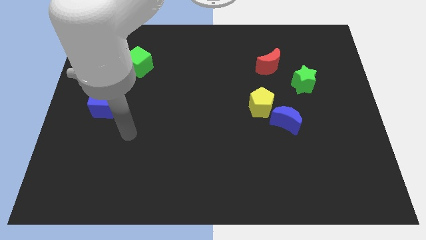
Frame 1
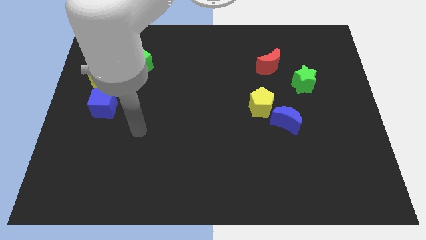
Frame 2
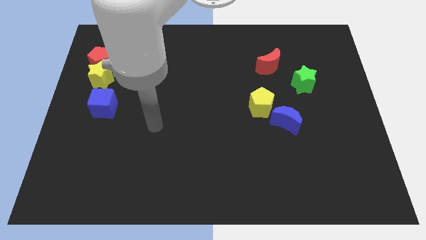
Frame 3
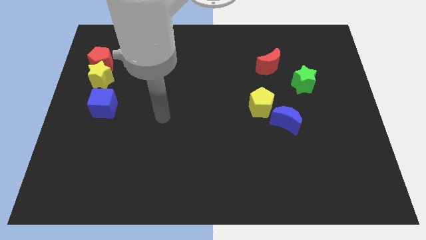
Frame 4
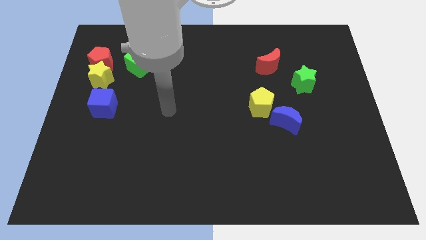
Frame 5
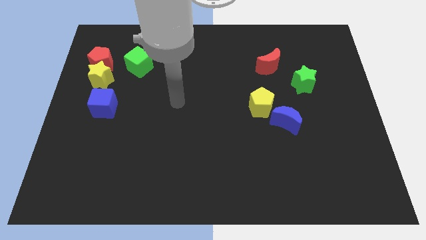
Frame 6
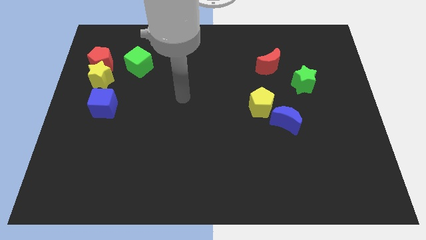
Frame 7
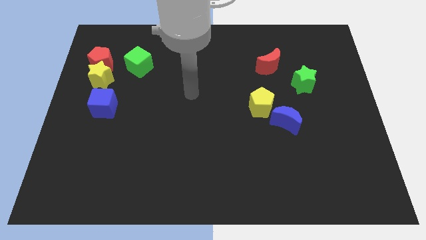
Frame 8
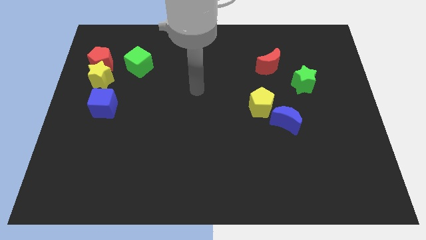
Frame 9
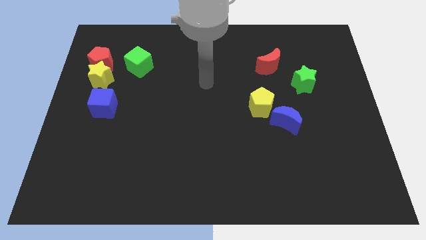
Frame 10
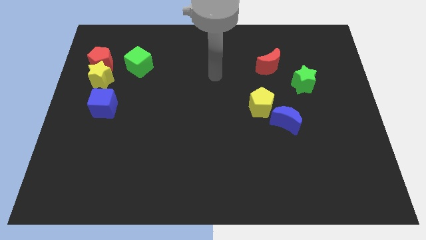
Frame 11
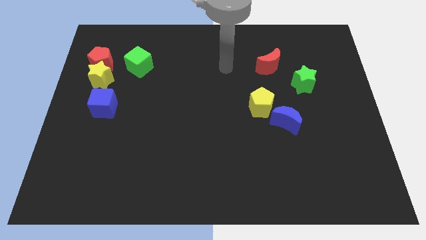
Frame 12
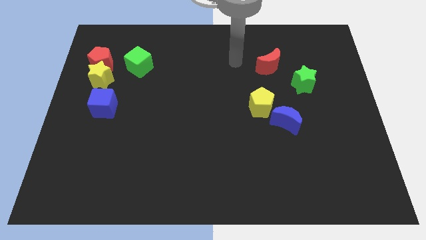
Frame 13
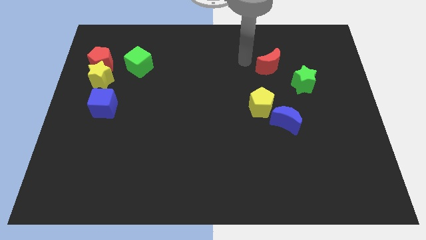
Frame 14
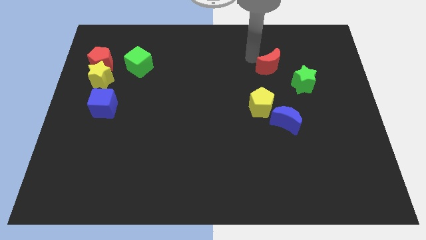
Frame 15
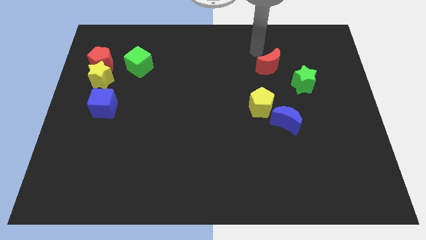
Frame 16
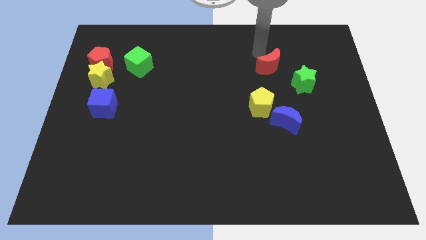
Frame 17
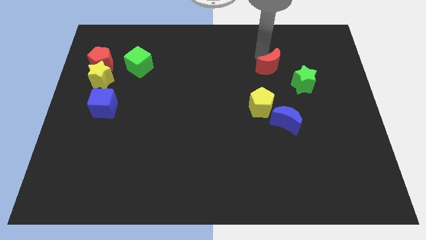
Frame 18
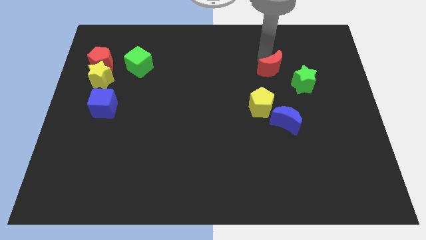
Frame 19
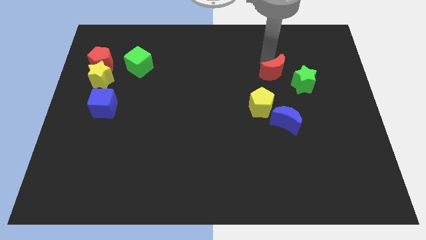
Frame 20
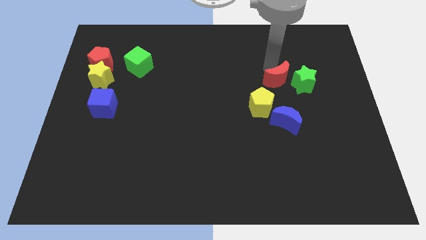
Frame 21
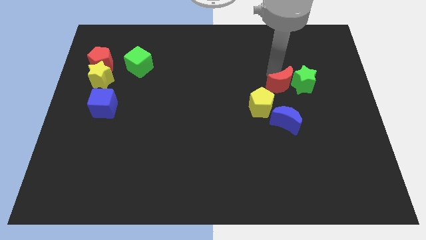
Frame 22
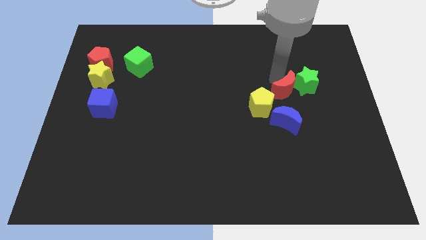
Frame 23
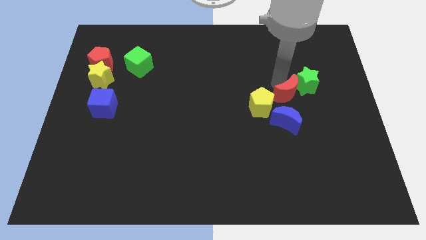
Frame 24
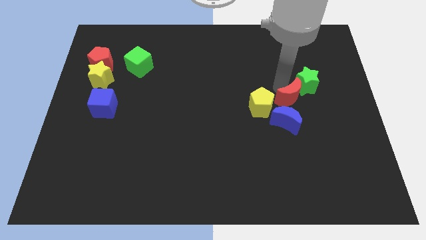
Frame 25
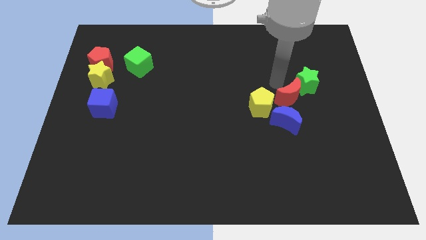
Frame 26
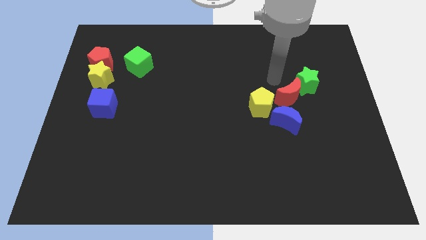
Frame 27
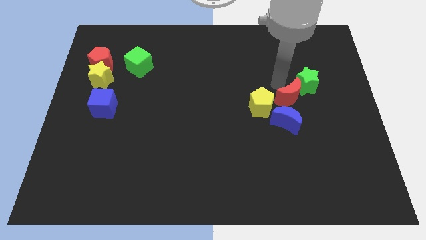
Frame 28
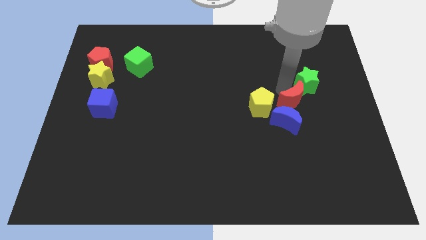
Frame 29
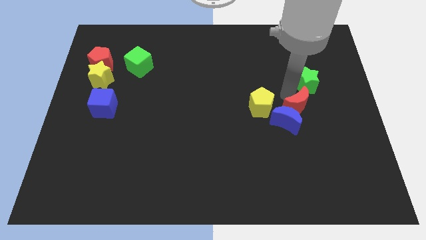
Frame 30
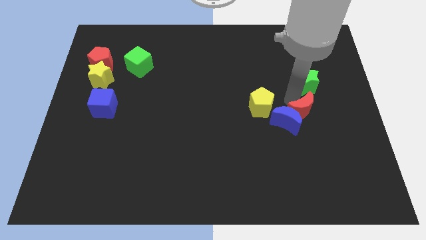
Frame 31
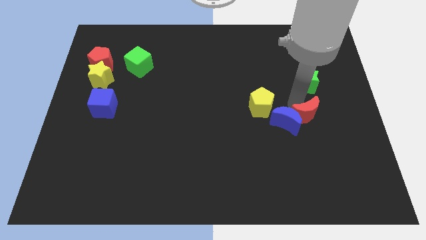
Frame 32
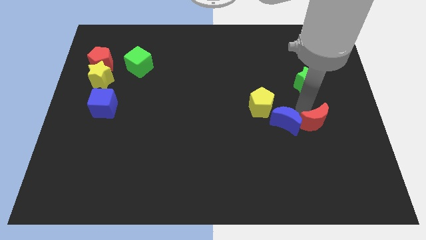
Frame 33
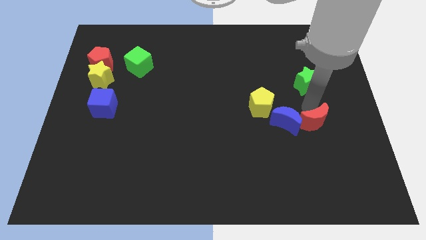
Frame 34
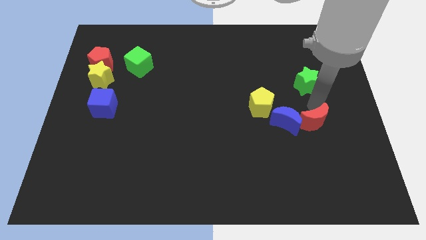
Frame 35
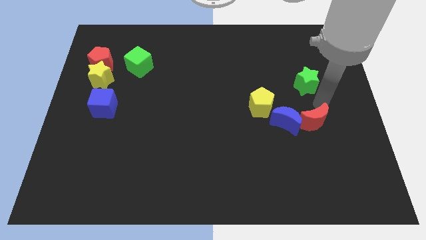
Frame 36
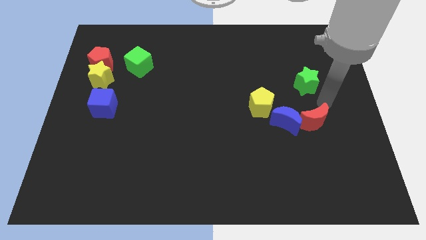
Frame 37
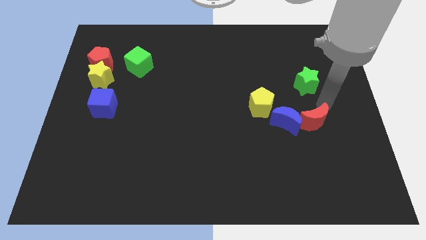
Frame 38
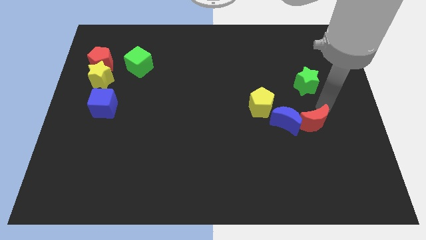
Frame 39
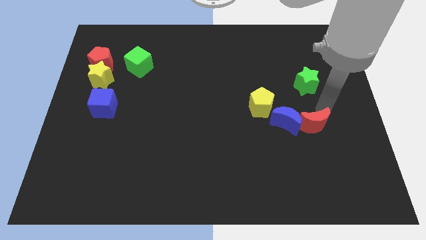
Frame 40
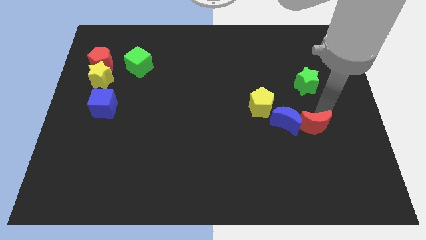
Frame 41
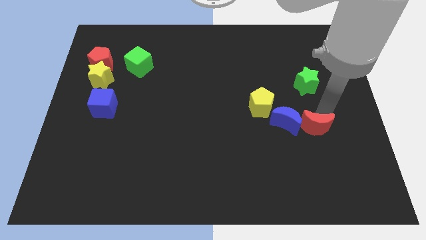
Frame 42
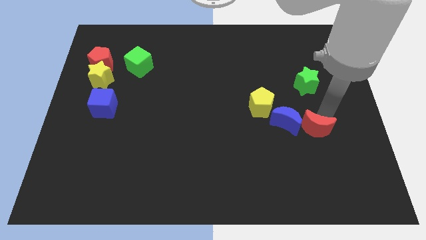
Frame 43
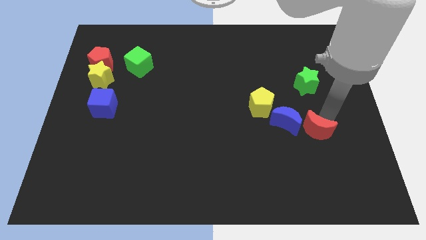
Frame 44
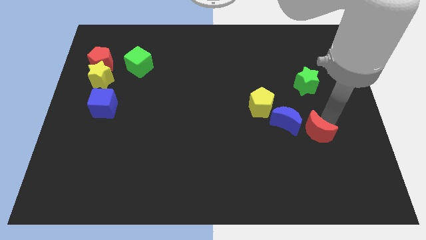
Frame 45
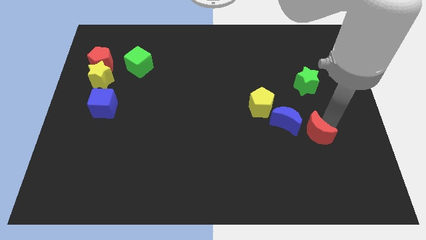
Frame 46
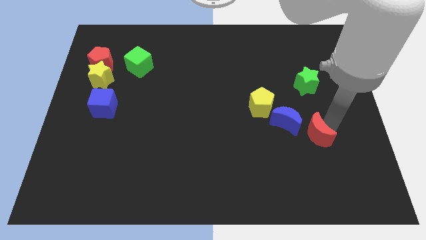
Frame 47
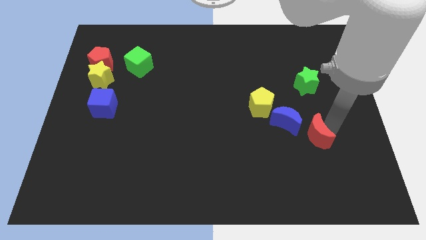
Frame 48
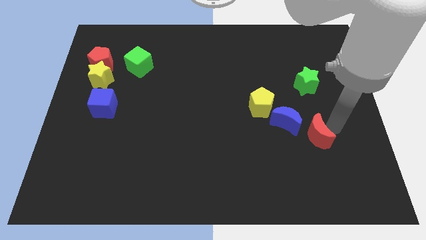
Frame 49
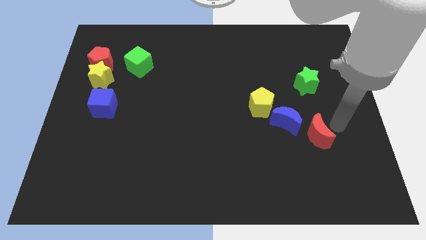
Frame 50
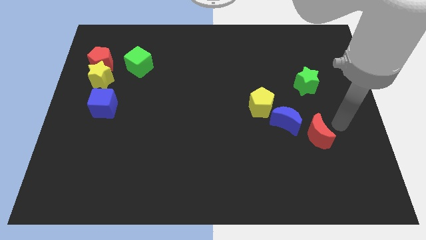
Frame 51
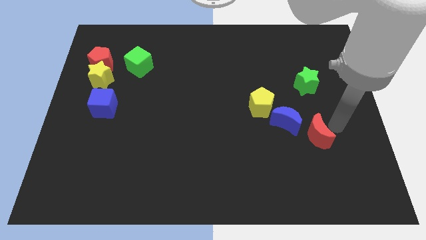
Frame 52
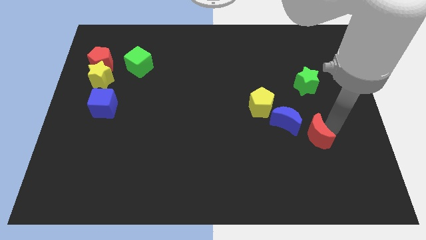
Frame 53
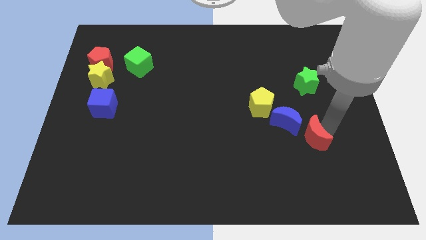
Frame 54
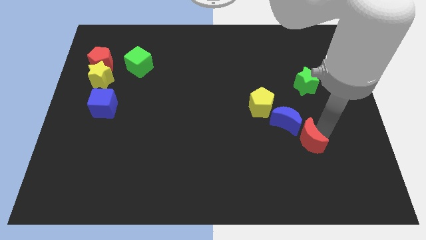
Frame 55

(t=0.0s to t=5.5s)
slide the red moon downwards

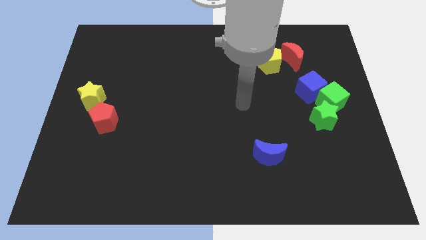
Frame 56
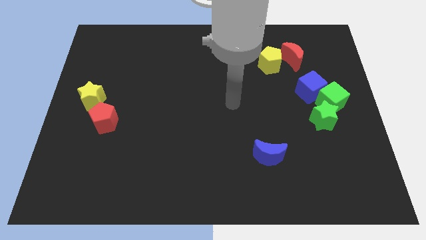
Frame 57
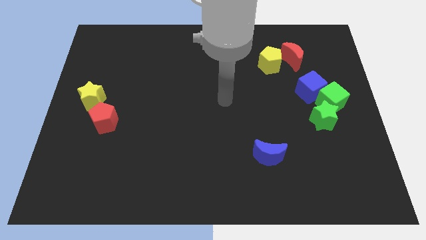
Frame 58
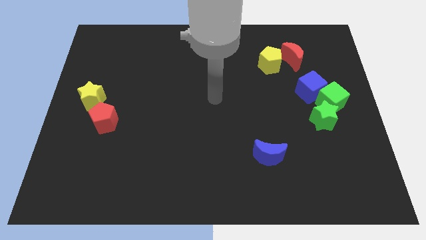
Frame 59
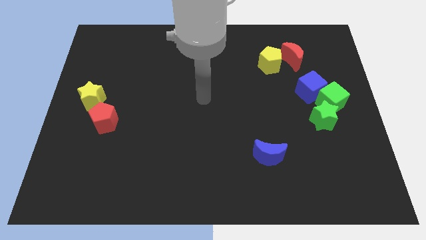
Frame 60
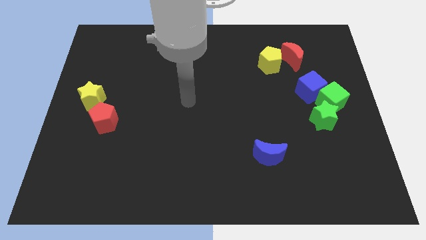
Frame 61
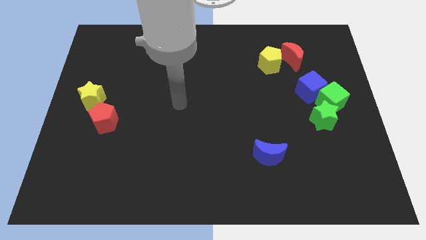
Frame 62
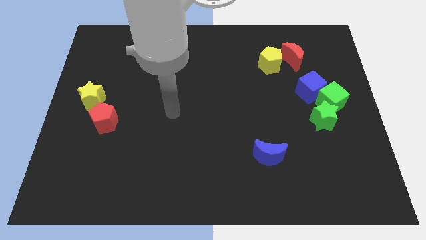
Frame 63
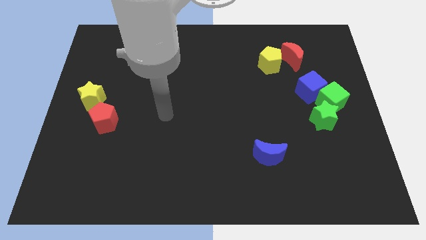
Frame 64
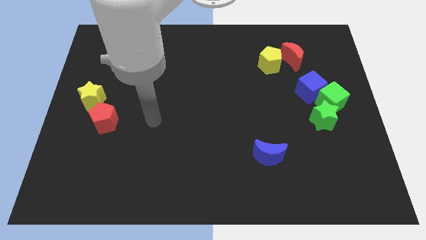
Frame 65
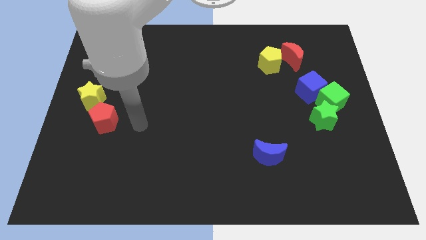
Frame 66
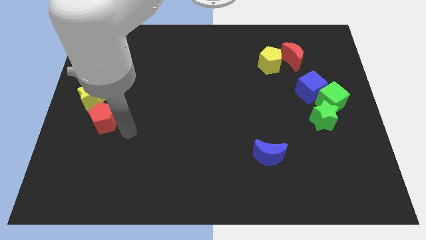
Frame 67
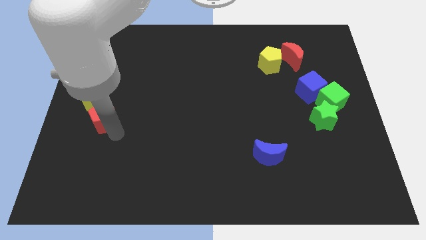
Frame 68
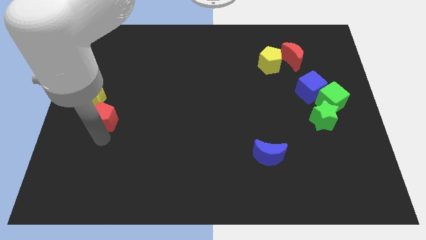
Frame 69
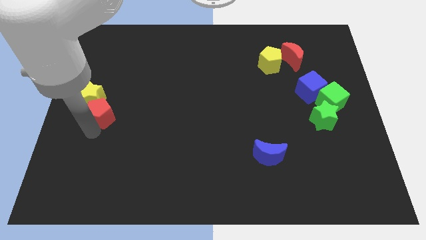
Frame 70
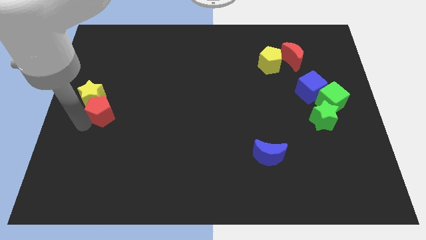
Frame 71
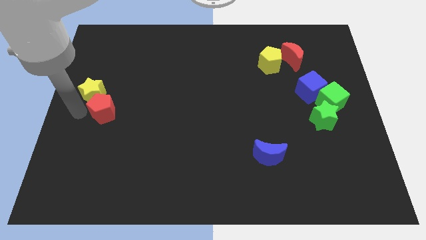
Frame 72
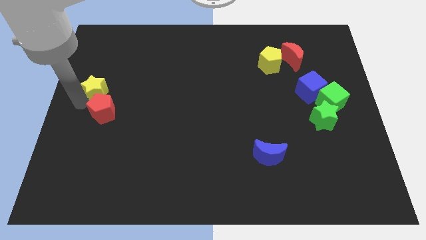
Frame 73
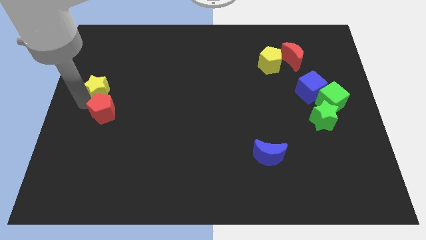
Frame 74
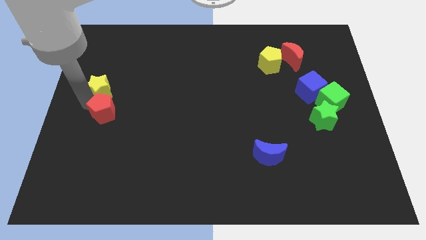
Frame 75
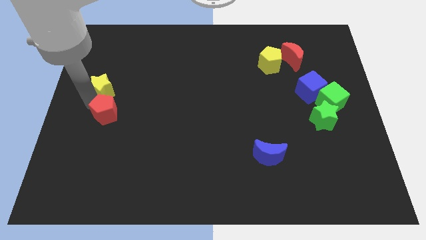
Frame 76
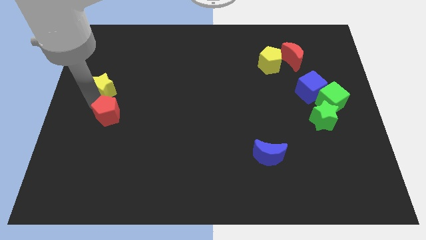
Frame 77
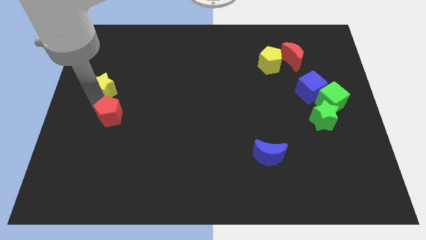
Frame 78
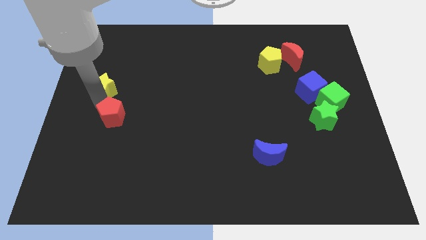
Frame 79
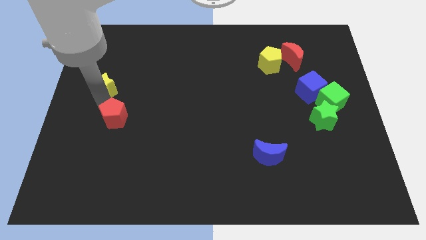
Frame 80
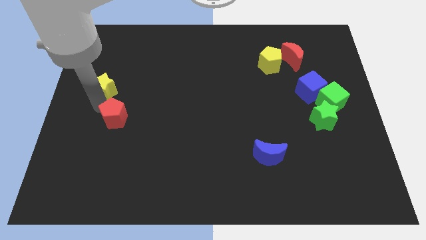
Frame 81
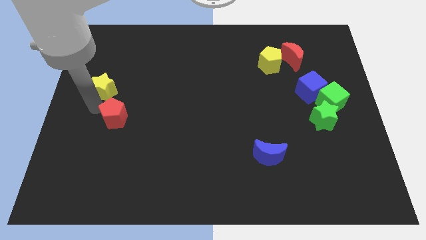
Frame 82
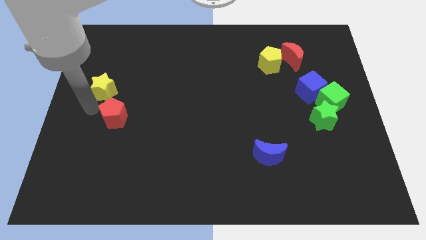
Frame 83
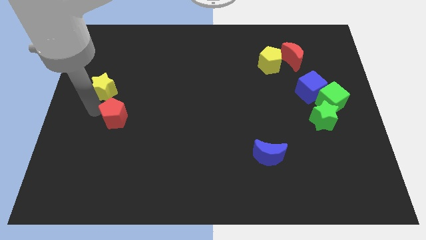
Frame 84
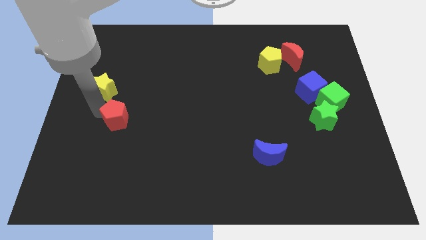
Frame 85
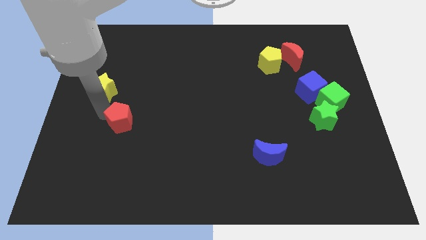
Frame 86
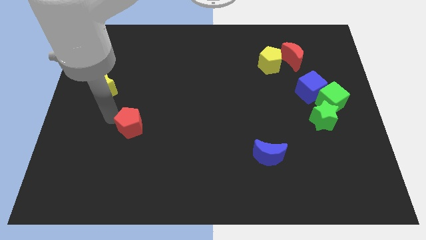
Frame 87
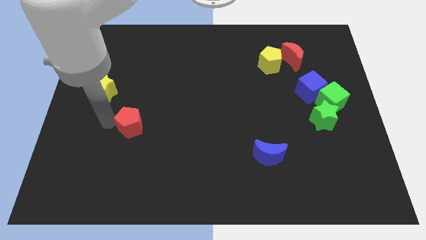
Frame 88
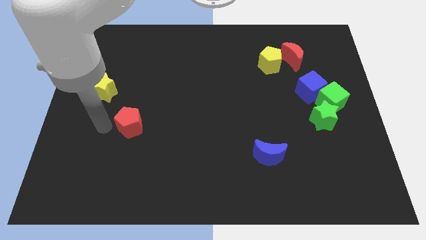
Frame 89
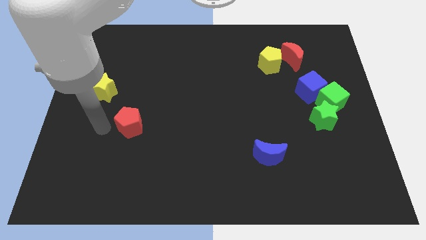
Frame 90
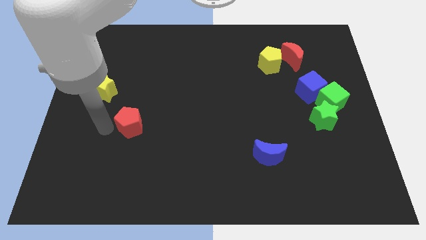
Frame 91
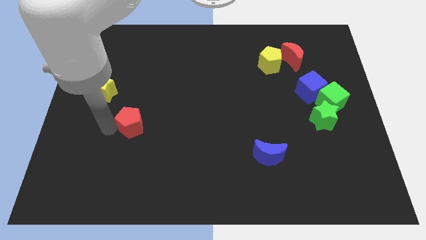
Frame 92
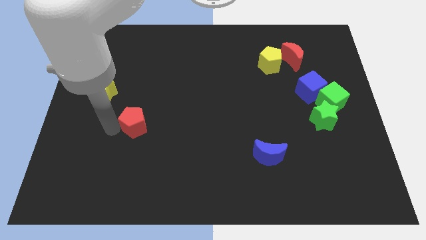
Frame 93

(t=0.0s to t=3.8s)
slightly move the red pentagon right
